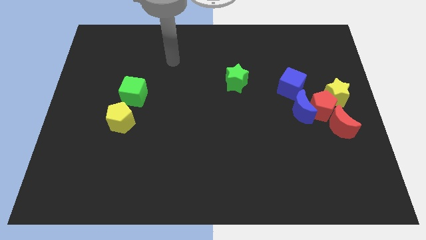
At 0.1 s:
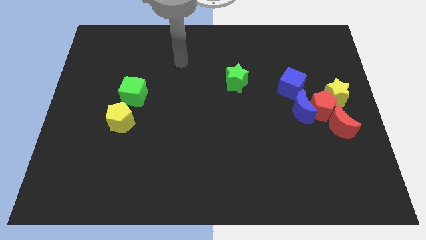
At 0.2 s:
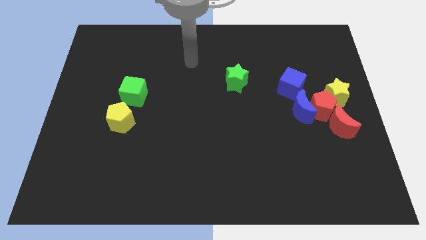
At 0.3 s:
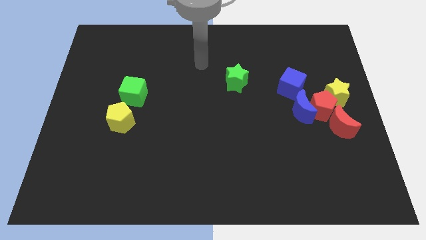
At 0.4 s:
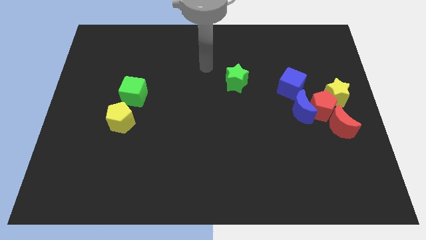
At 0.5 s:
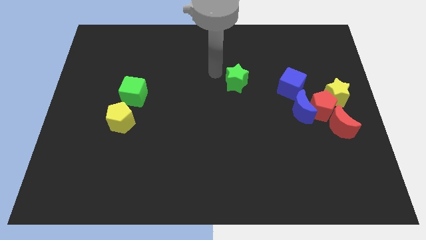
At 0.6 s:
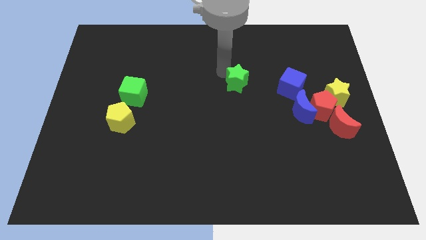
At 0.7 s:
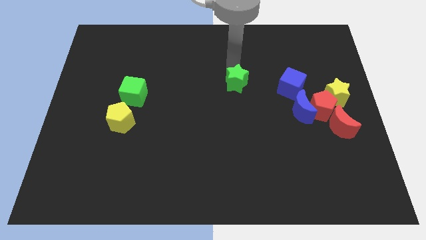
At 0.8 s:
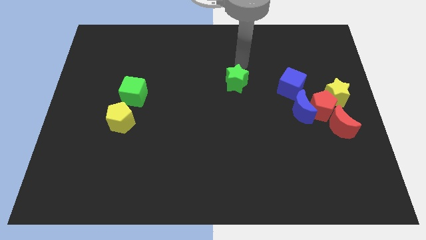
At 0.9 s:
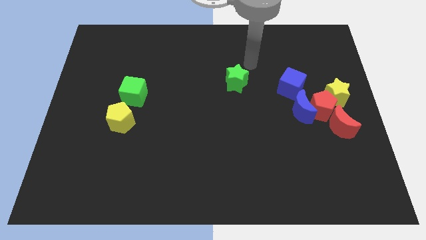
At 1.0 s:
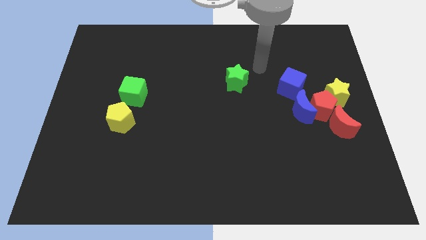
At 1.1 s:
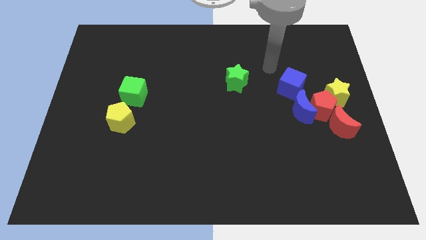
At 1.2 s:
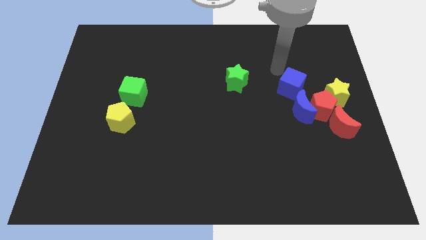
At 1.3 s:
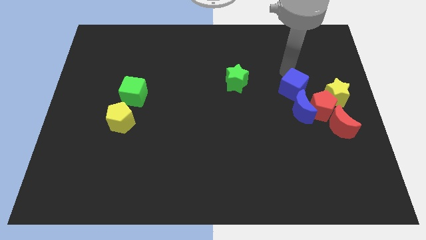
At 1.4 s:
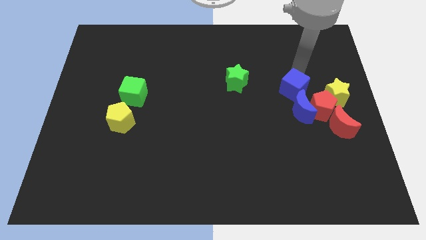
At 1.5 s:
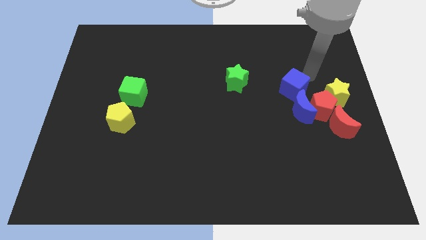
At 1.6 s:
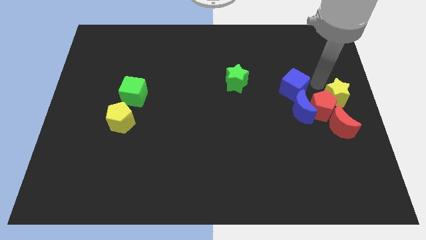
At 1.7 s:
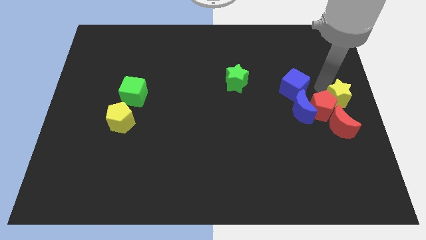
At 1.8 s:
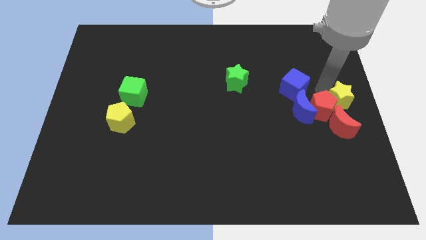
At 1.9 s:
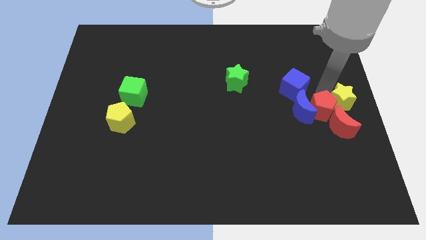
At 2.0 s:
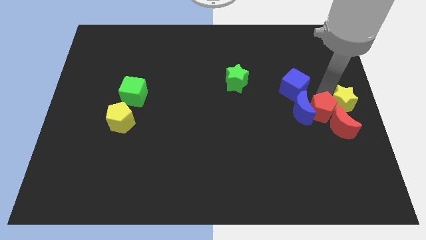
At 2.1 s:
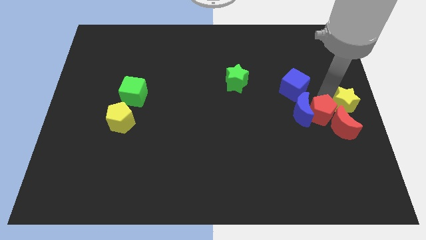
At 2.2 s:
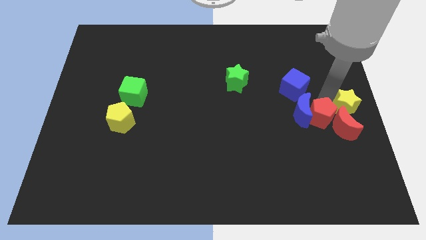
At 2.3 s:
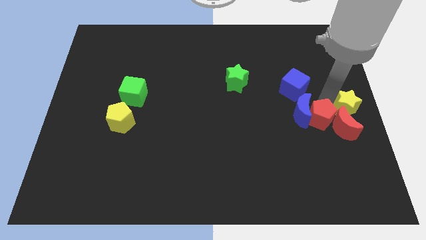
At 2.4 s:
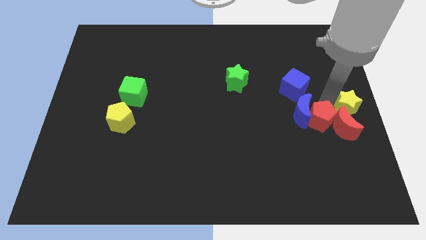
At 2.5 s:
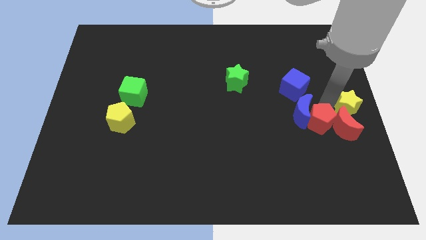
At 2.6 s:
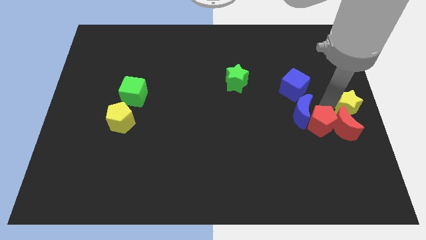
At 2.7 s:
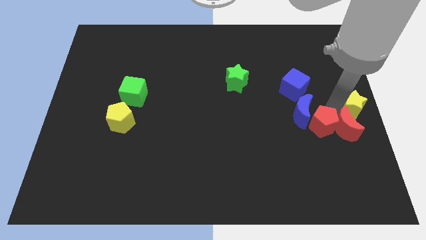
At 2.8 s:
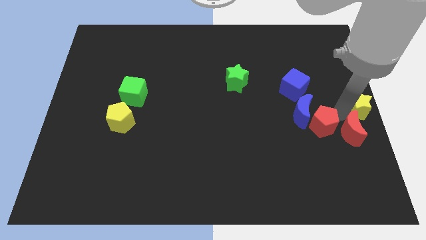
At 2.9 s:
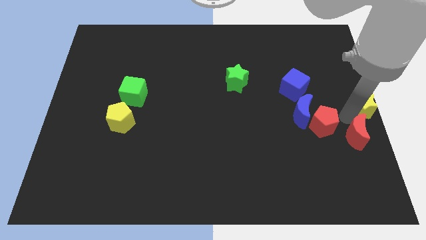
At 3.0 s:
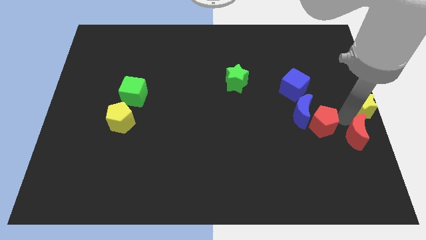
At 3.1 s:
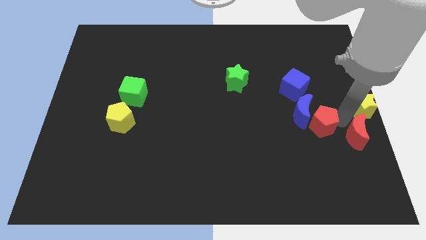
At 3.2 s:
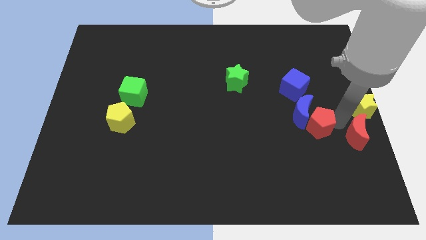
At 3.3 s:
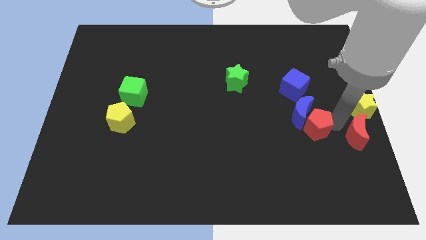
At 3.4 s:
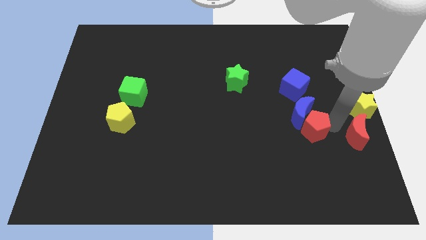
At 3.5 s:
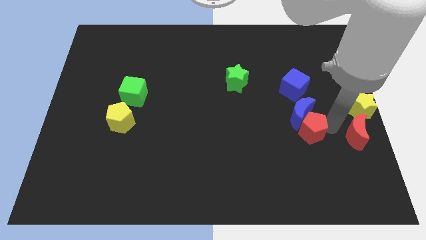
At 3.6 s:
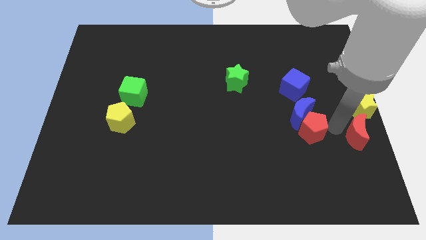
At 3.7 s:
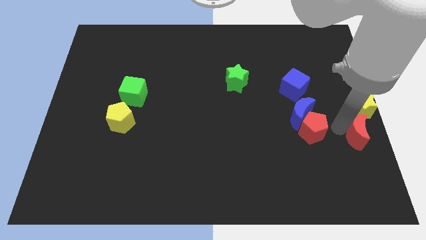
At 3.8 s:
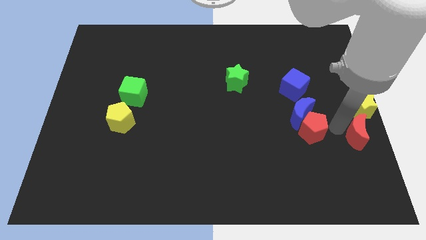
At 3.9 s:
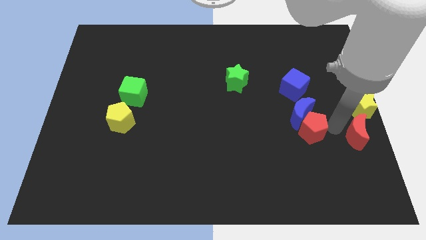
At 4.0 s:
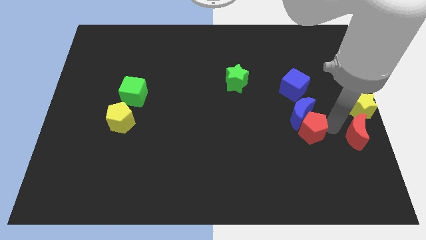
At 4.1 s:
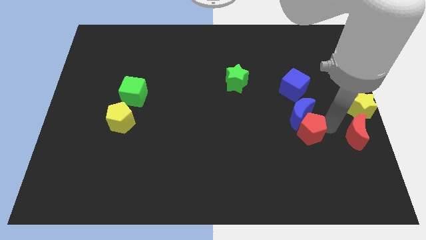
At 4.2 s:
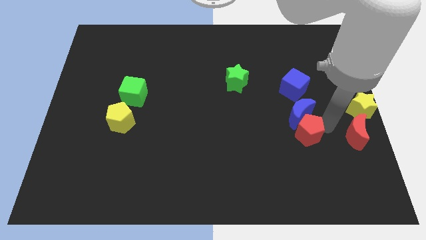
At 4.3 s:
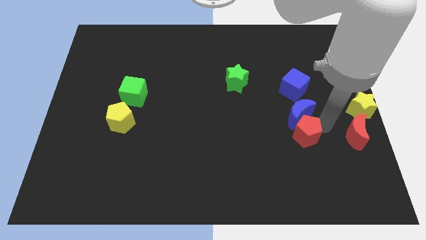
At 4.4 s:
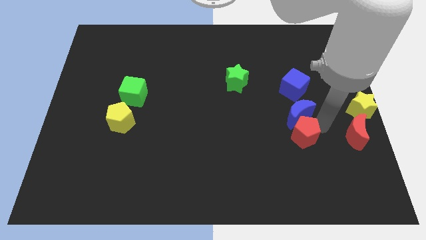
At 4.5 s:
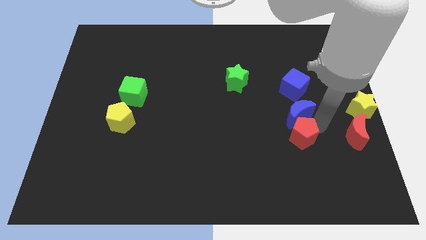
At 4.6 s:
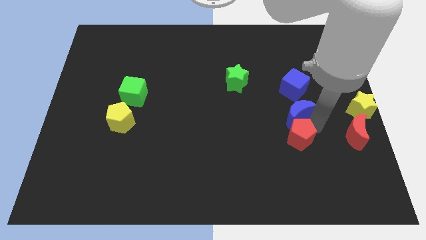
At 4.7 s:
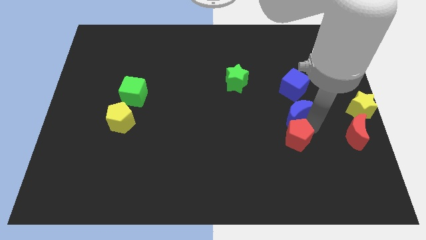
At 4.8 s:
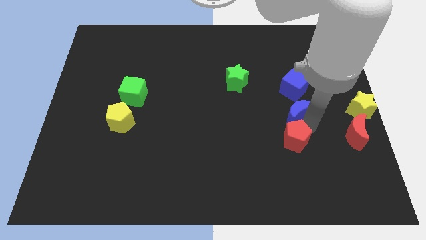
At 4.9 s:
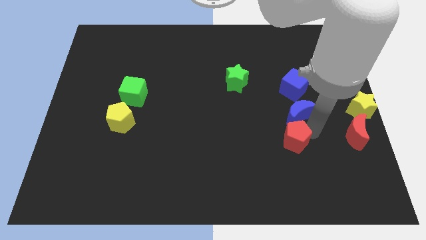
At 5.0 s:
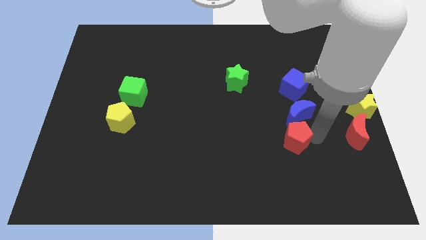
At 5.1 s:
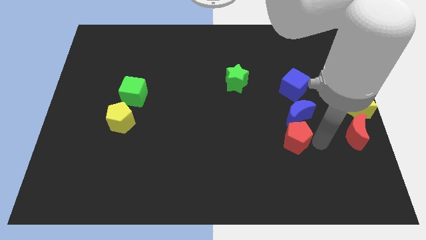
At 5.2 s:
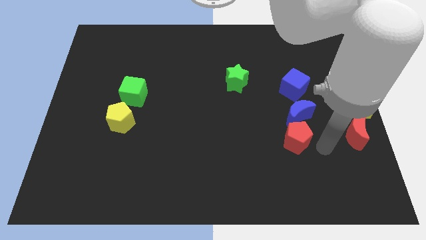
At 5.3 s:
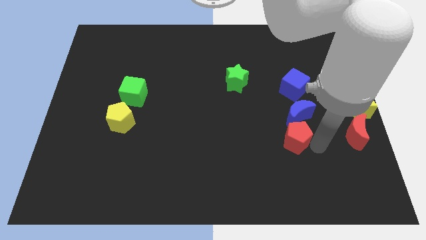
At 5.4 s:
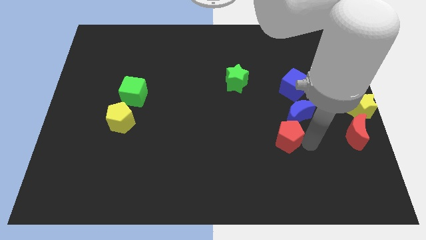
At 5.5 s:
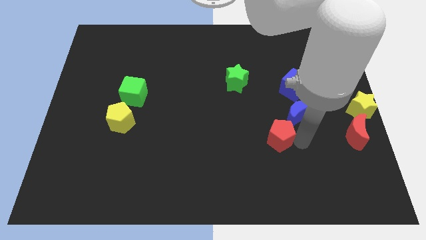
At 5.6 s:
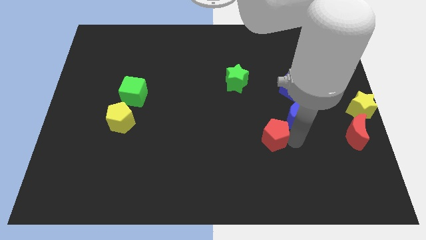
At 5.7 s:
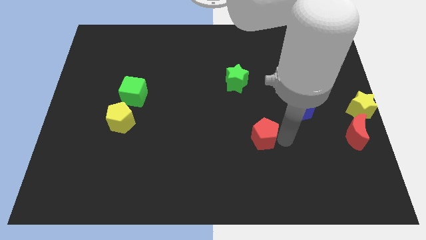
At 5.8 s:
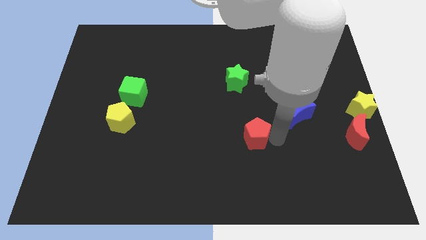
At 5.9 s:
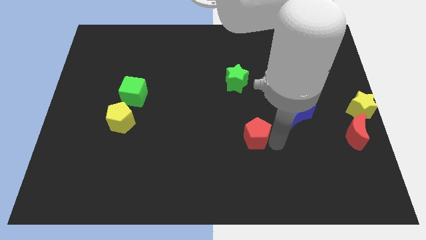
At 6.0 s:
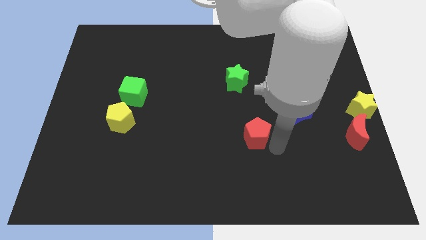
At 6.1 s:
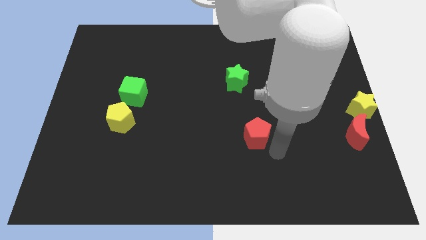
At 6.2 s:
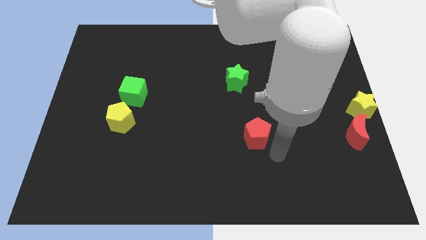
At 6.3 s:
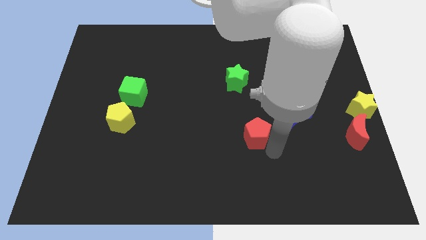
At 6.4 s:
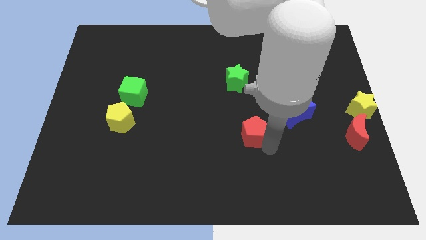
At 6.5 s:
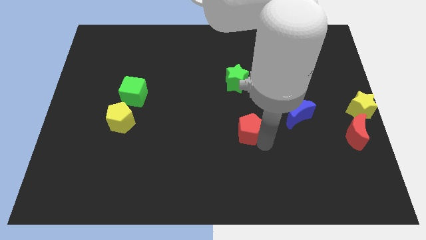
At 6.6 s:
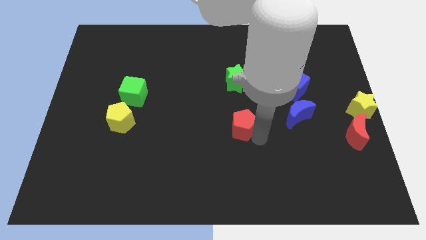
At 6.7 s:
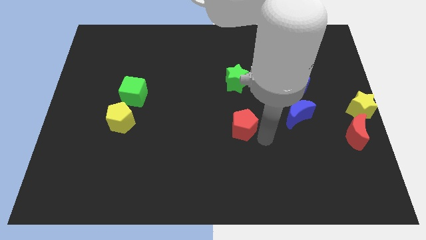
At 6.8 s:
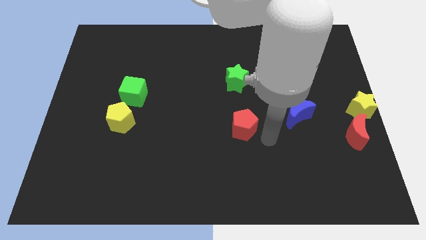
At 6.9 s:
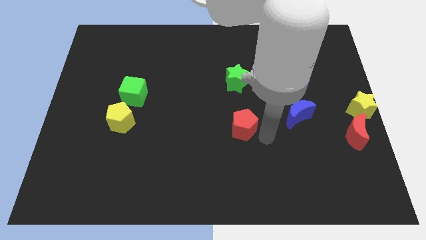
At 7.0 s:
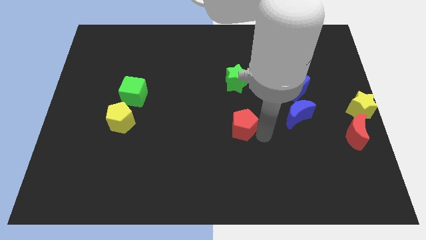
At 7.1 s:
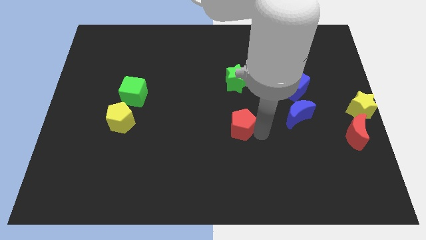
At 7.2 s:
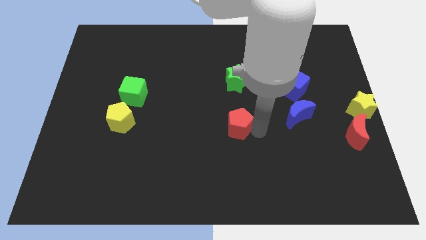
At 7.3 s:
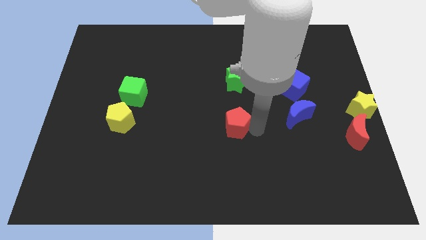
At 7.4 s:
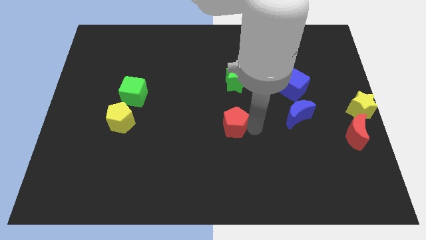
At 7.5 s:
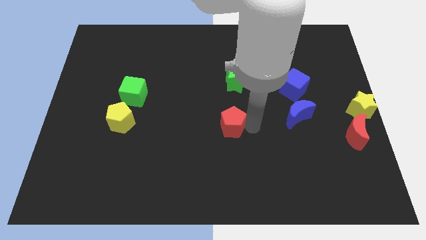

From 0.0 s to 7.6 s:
slide the red pentagon to the left

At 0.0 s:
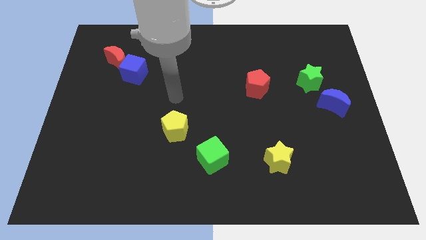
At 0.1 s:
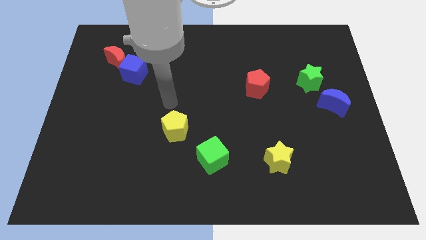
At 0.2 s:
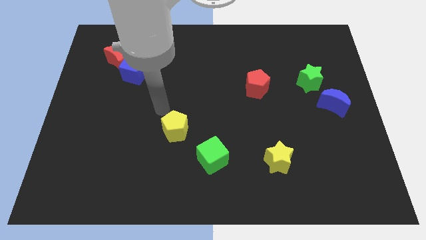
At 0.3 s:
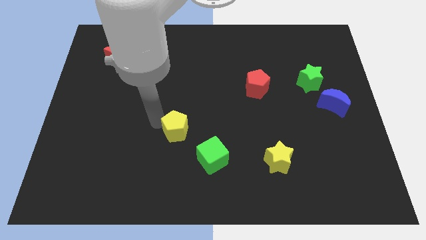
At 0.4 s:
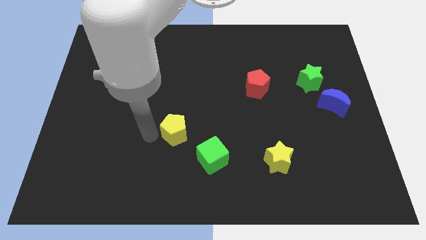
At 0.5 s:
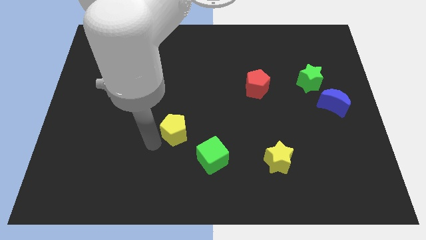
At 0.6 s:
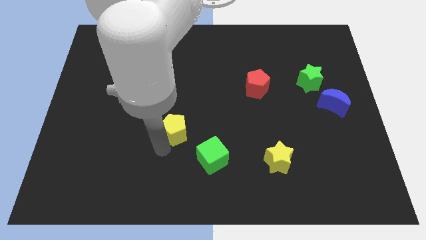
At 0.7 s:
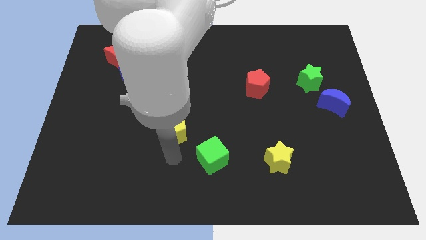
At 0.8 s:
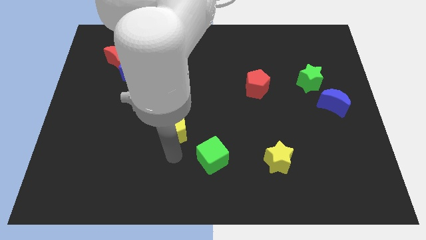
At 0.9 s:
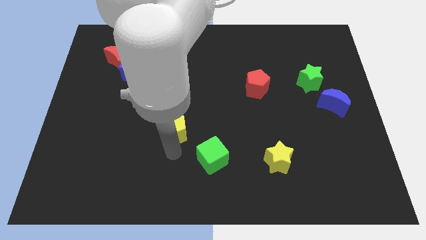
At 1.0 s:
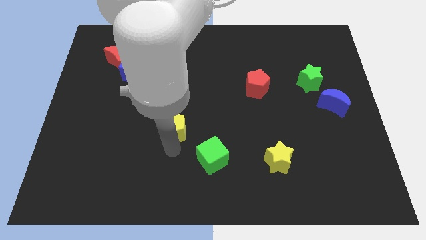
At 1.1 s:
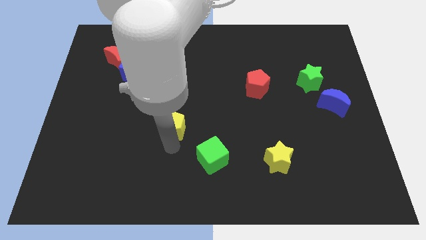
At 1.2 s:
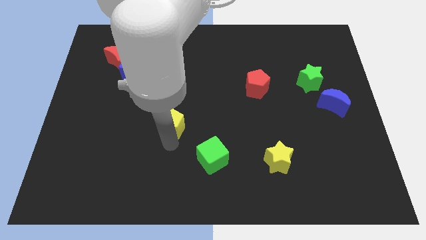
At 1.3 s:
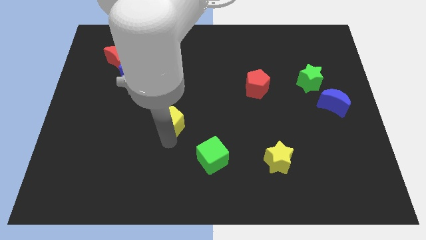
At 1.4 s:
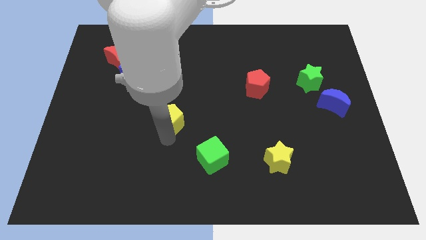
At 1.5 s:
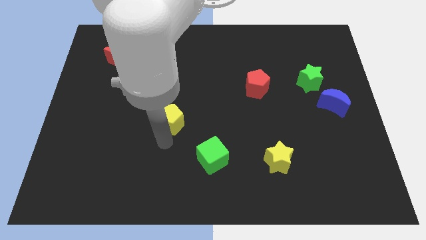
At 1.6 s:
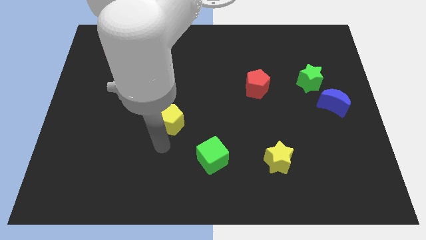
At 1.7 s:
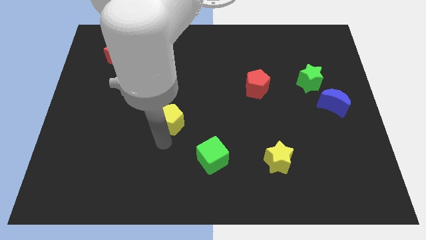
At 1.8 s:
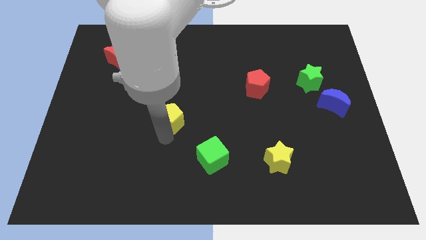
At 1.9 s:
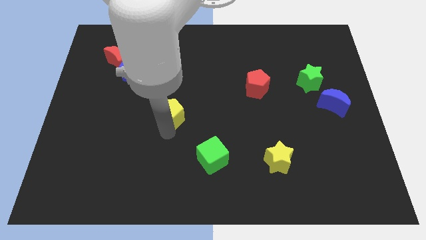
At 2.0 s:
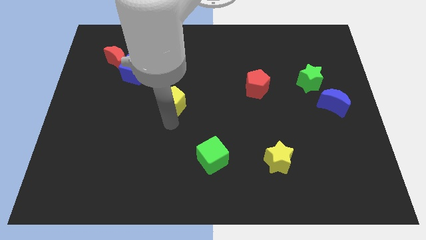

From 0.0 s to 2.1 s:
slightly move the yellow pentagon up
